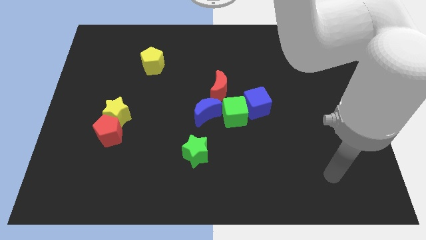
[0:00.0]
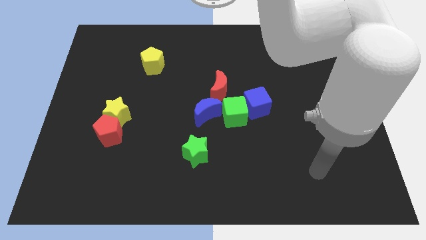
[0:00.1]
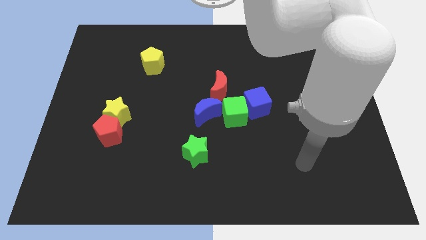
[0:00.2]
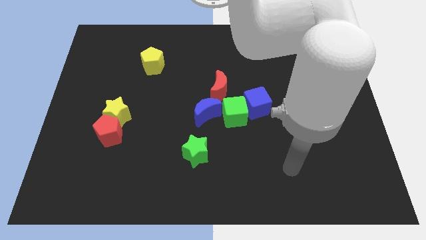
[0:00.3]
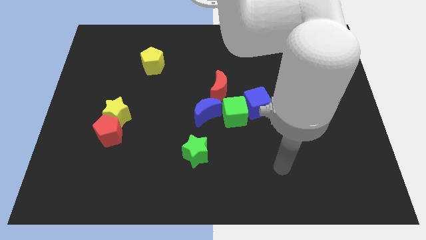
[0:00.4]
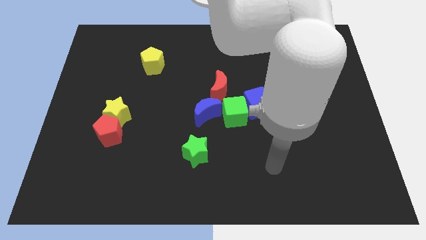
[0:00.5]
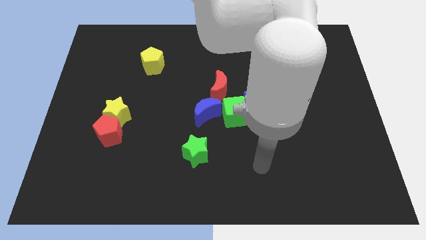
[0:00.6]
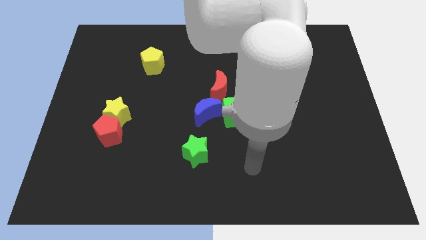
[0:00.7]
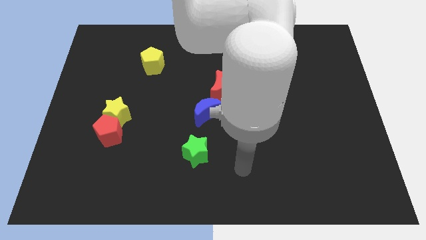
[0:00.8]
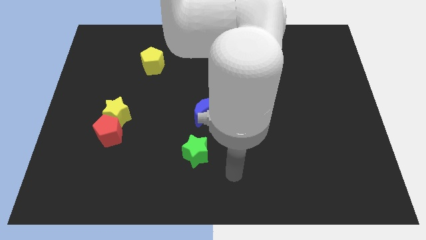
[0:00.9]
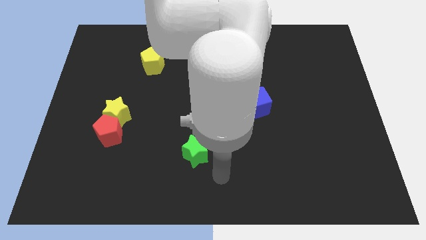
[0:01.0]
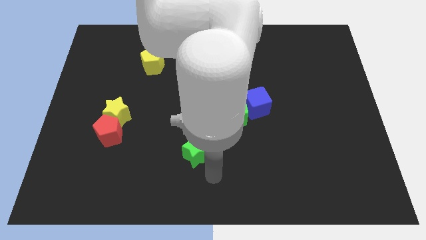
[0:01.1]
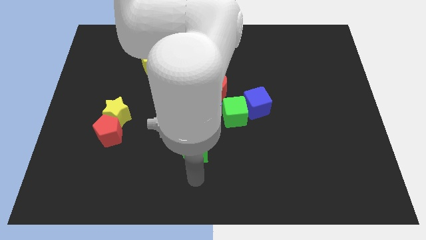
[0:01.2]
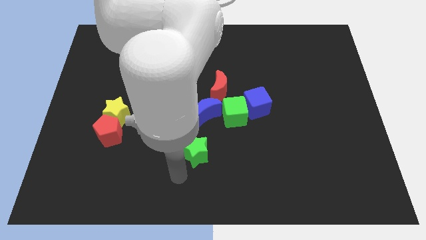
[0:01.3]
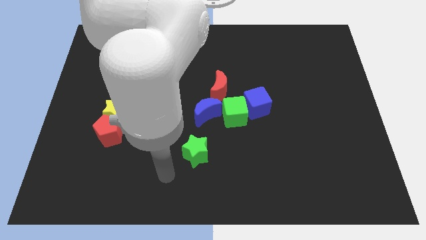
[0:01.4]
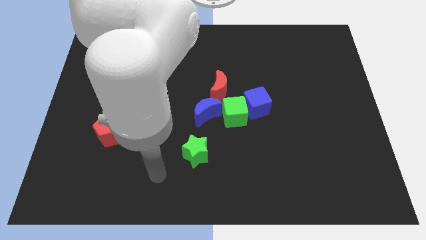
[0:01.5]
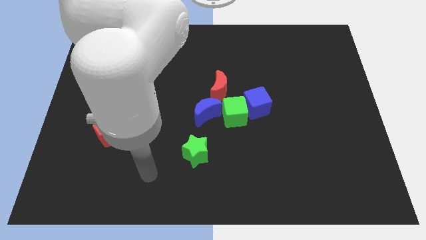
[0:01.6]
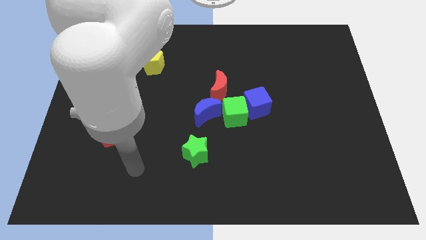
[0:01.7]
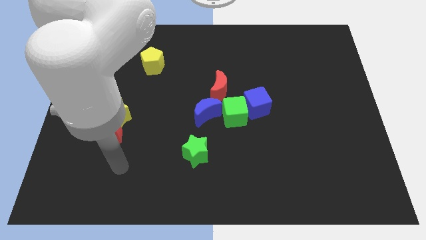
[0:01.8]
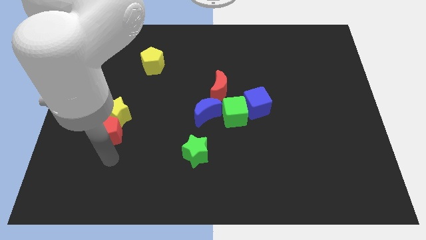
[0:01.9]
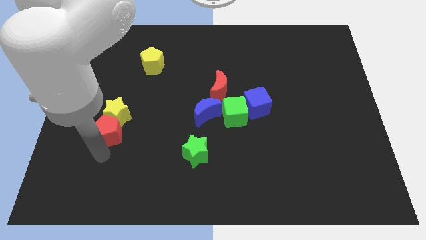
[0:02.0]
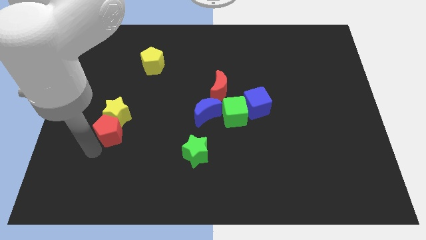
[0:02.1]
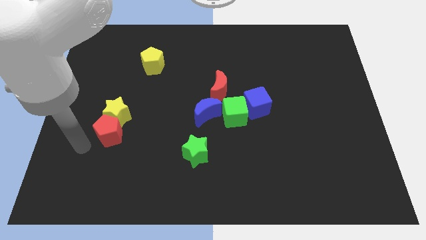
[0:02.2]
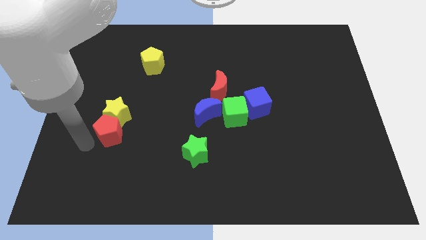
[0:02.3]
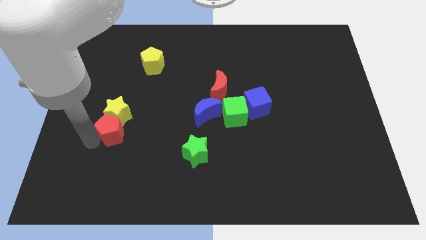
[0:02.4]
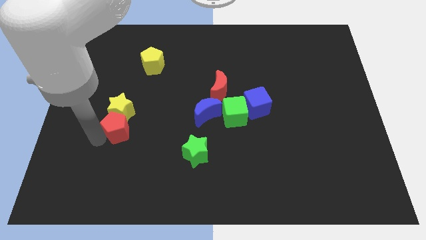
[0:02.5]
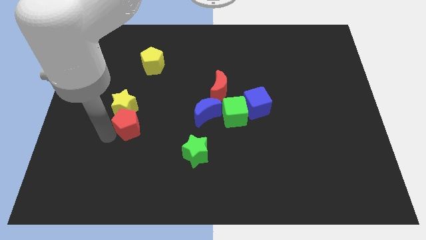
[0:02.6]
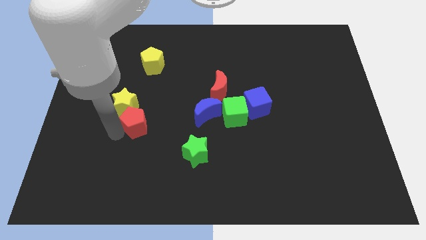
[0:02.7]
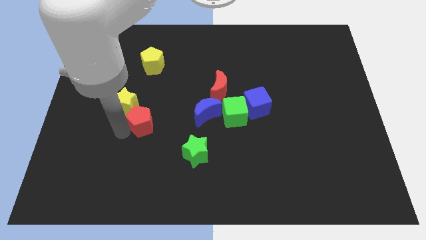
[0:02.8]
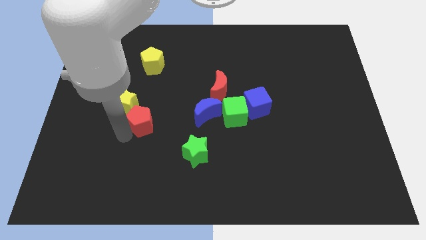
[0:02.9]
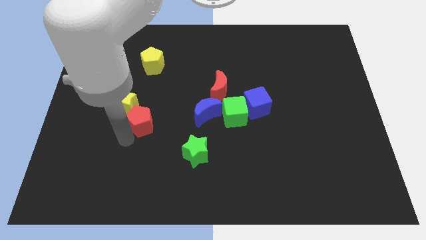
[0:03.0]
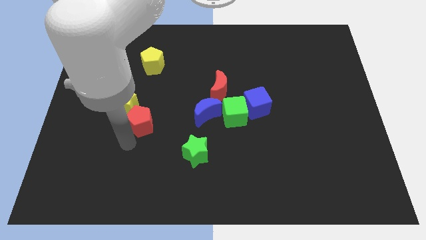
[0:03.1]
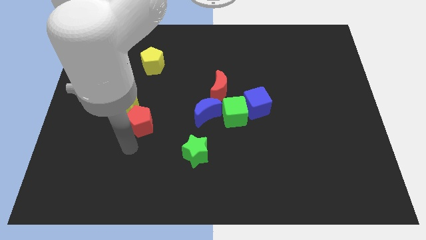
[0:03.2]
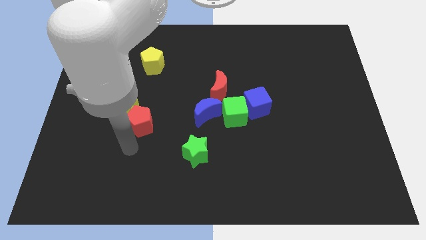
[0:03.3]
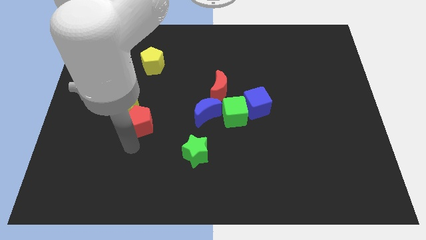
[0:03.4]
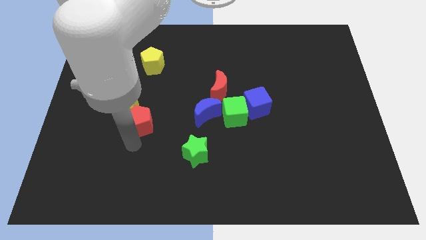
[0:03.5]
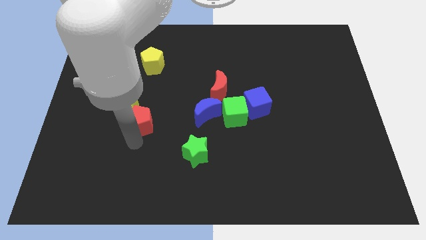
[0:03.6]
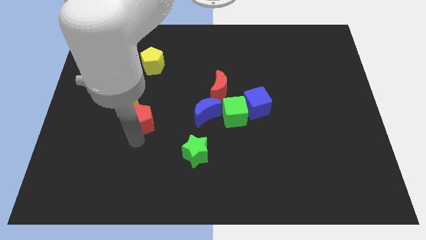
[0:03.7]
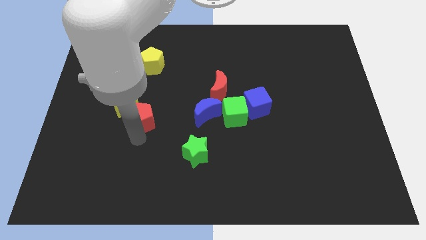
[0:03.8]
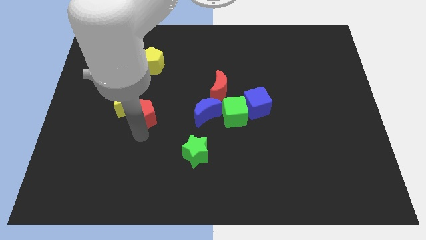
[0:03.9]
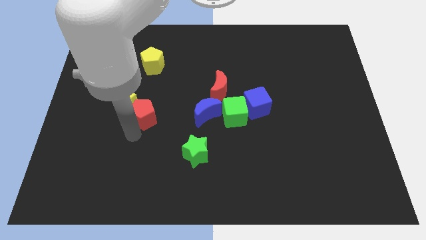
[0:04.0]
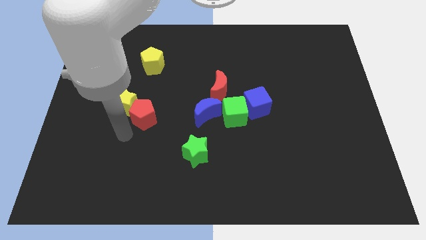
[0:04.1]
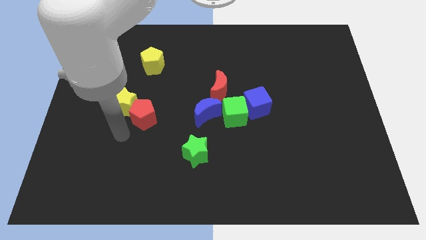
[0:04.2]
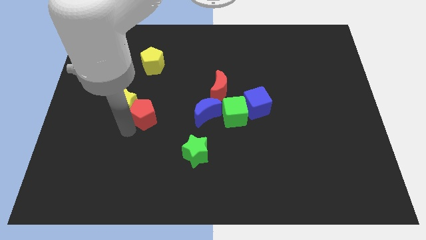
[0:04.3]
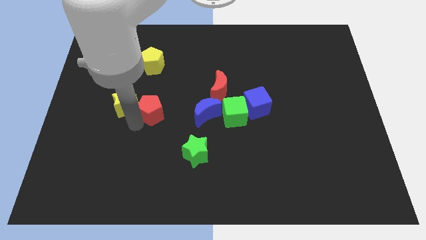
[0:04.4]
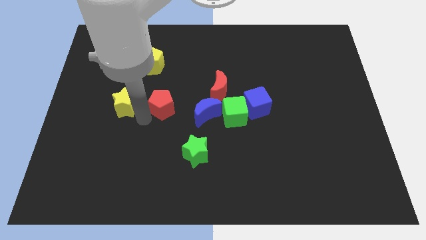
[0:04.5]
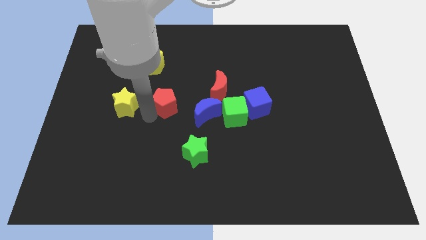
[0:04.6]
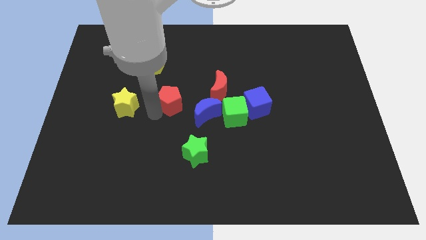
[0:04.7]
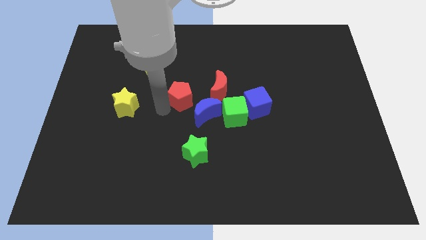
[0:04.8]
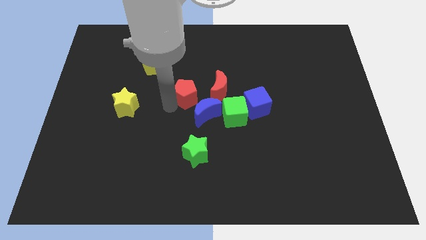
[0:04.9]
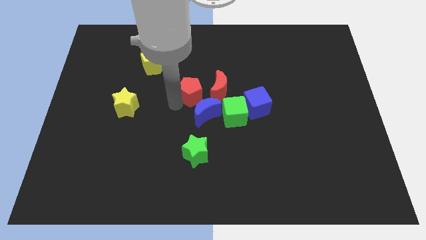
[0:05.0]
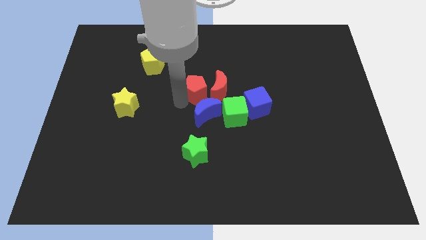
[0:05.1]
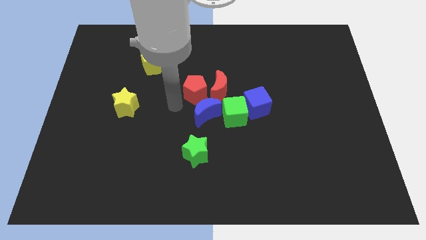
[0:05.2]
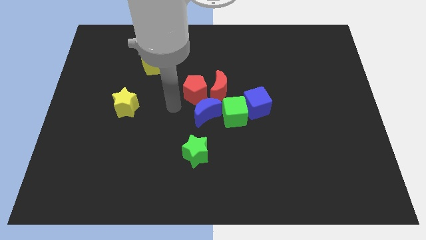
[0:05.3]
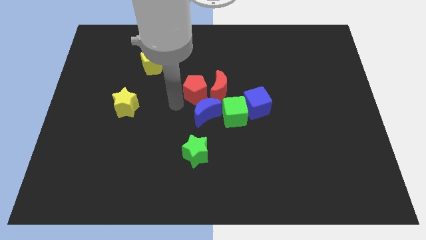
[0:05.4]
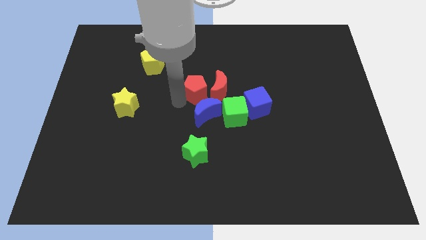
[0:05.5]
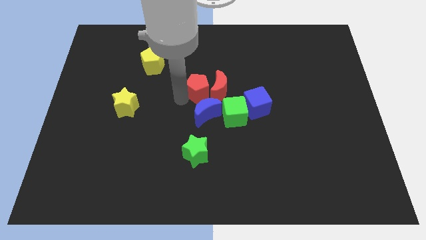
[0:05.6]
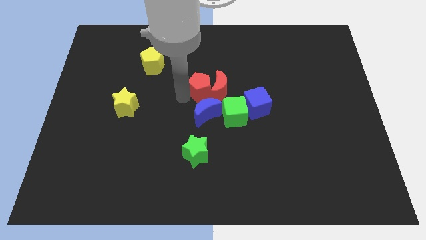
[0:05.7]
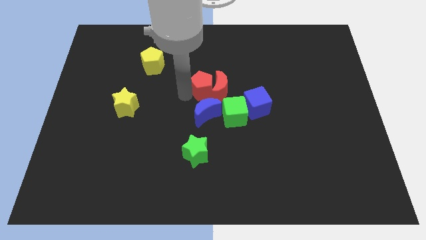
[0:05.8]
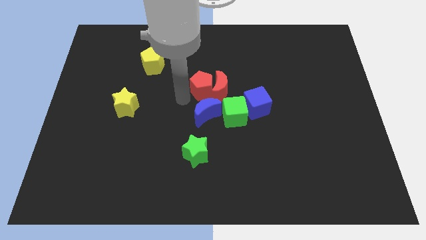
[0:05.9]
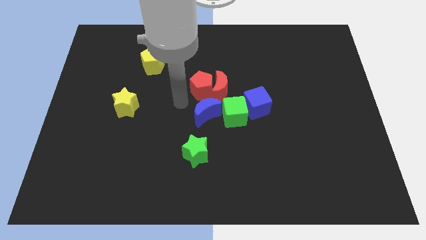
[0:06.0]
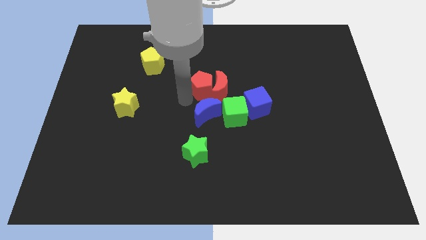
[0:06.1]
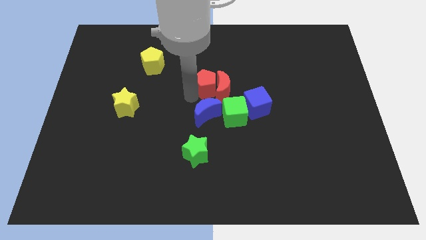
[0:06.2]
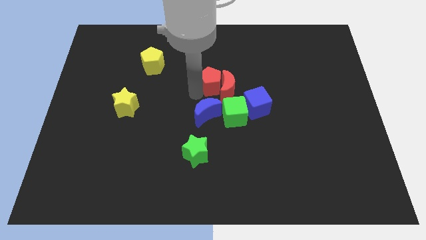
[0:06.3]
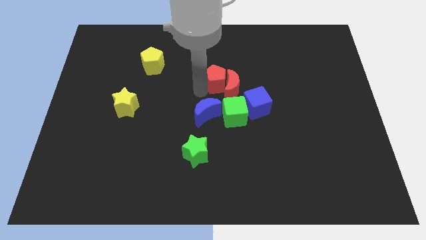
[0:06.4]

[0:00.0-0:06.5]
slide the red pentagon above the green cube
